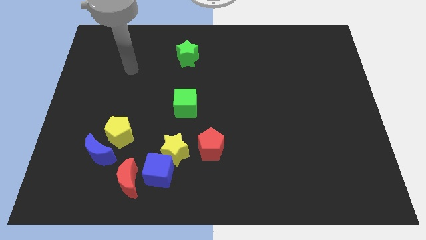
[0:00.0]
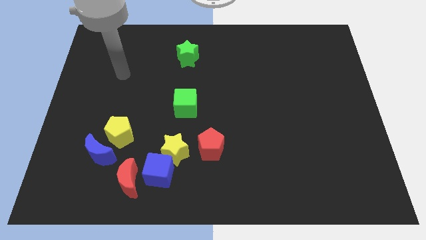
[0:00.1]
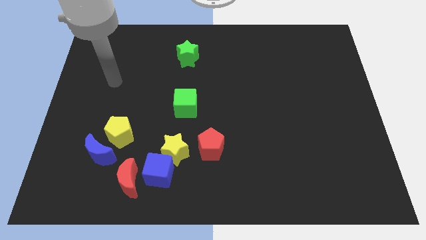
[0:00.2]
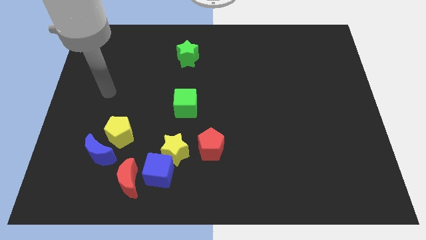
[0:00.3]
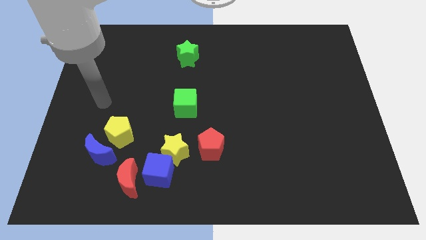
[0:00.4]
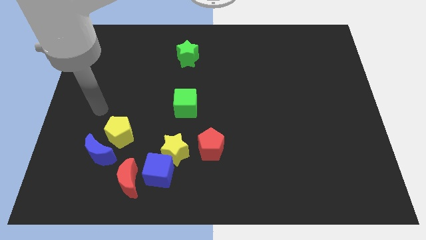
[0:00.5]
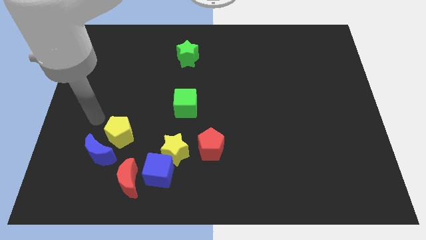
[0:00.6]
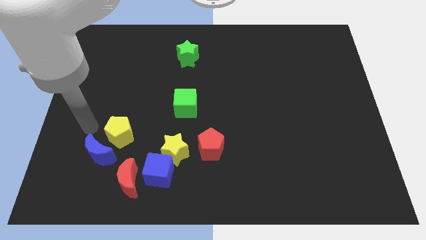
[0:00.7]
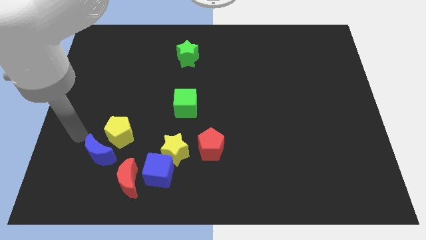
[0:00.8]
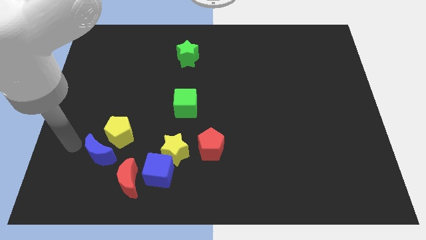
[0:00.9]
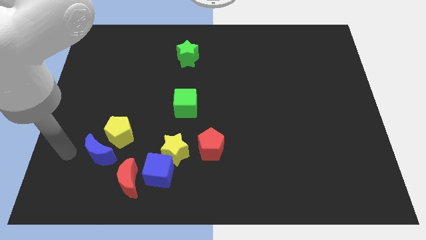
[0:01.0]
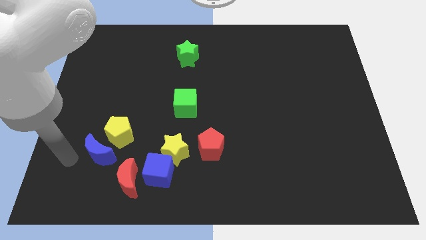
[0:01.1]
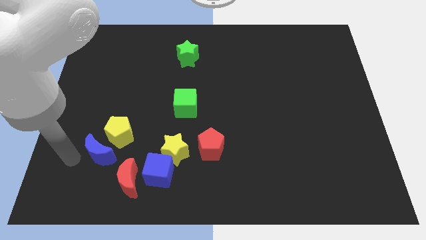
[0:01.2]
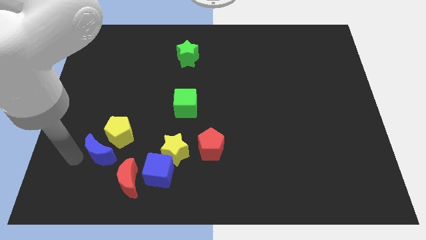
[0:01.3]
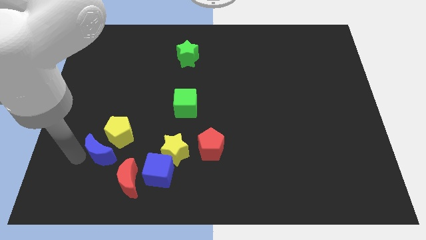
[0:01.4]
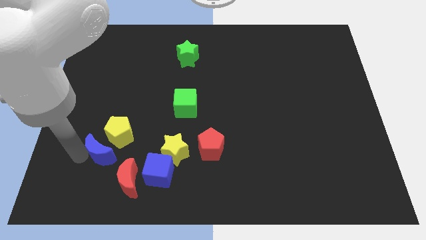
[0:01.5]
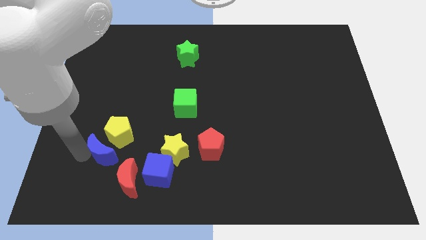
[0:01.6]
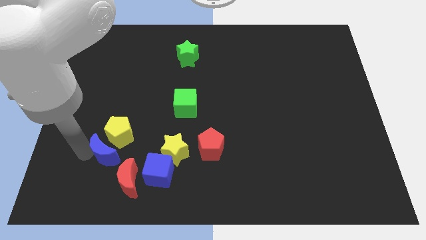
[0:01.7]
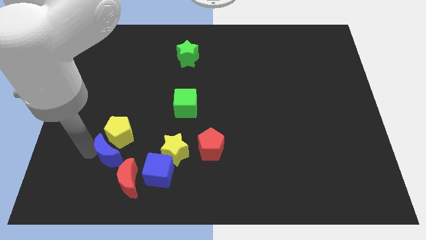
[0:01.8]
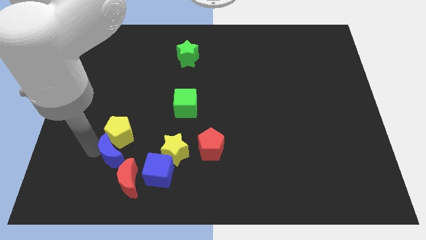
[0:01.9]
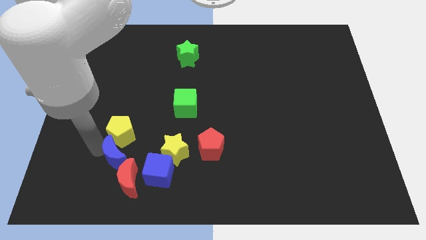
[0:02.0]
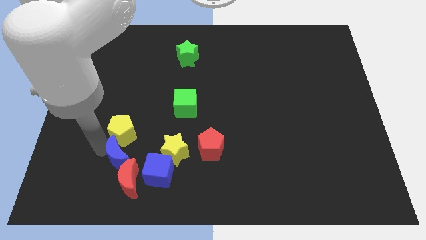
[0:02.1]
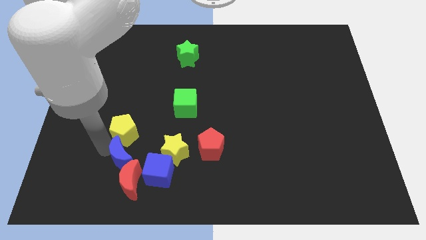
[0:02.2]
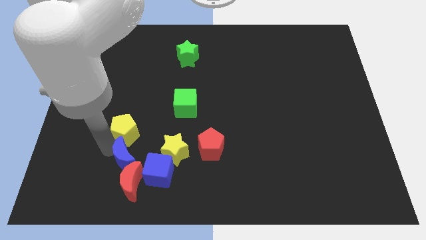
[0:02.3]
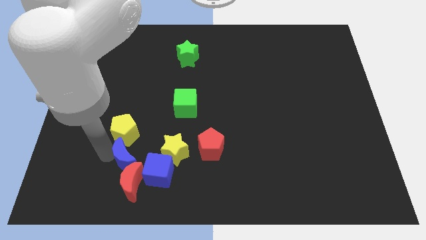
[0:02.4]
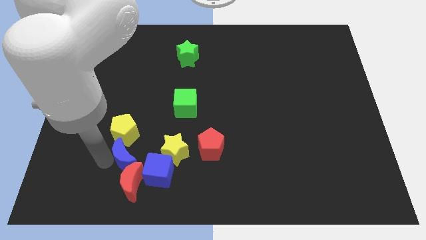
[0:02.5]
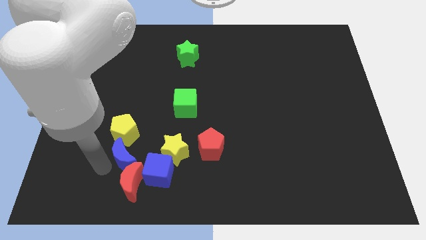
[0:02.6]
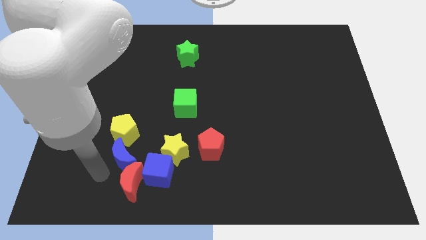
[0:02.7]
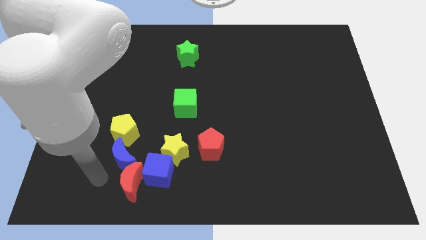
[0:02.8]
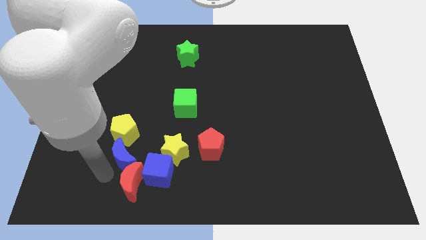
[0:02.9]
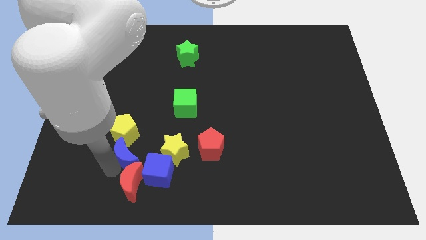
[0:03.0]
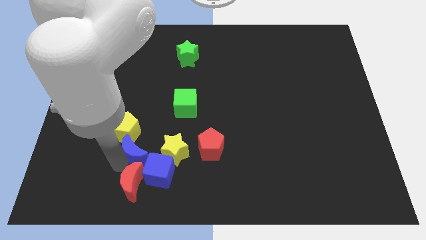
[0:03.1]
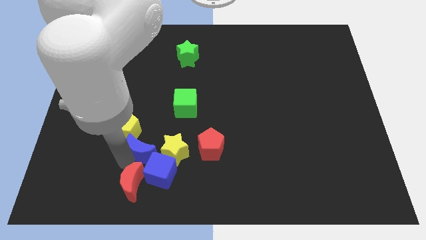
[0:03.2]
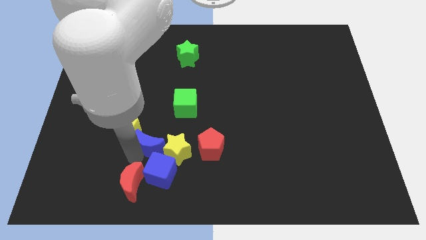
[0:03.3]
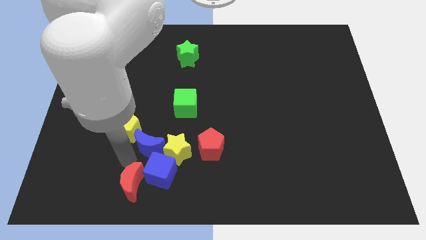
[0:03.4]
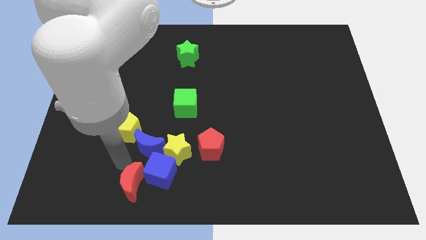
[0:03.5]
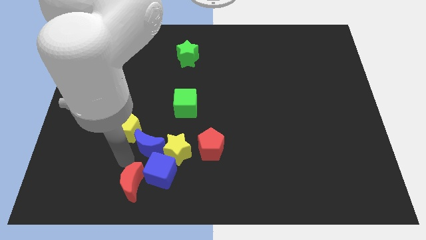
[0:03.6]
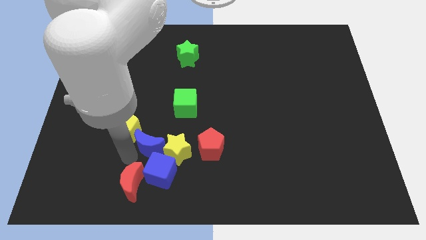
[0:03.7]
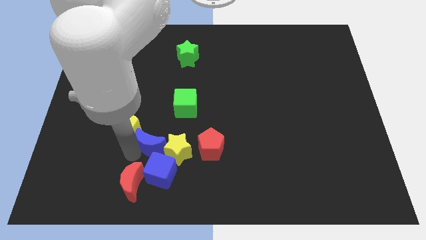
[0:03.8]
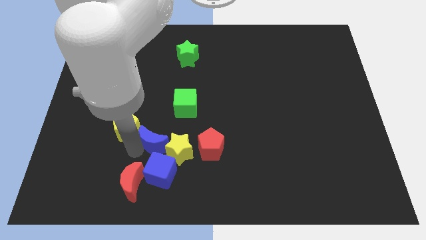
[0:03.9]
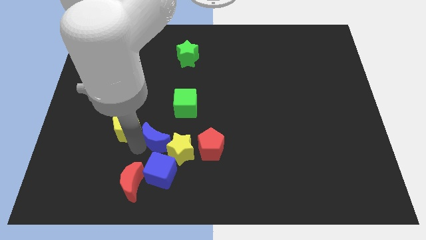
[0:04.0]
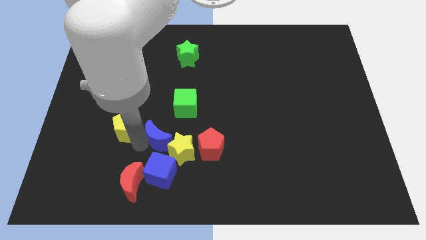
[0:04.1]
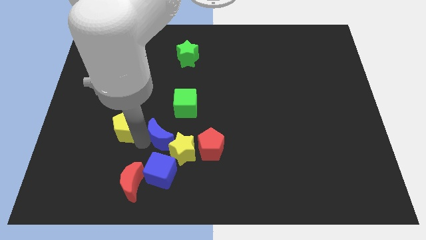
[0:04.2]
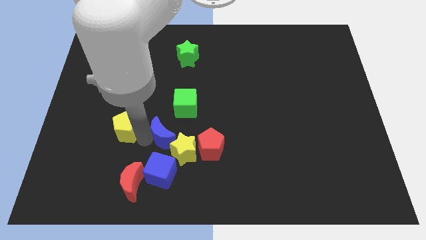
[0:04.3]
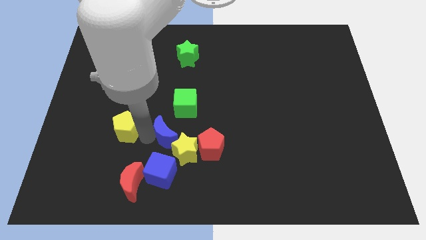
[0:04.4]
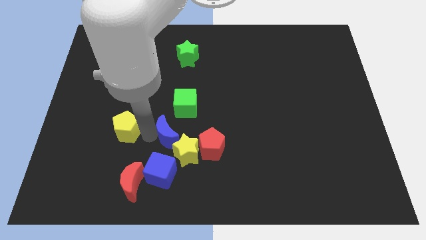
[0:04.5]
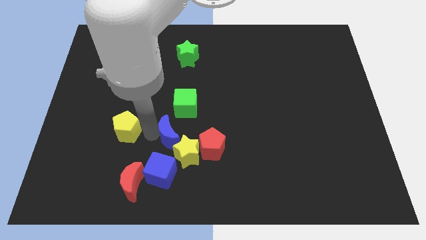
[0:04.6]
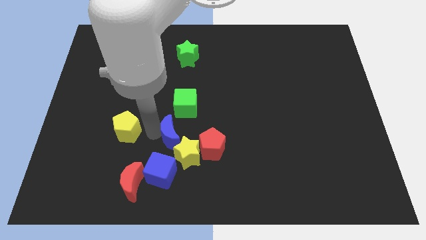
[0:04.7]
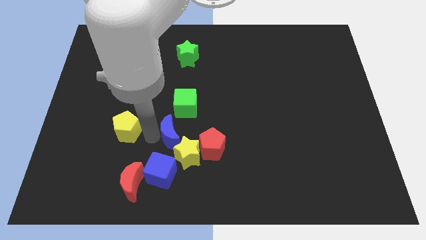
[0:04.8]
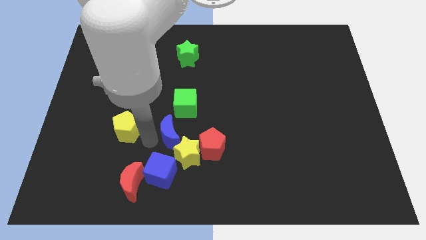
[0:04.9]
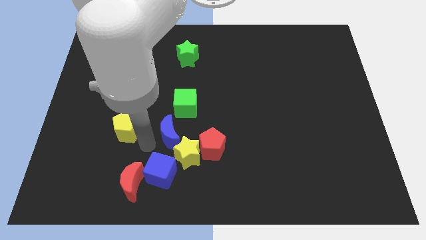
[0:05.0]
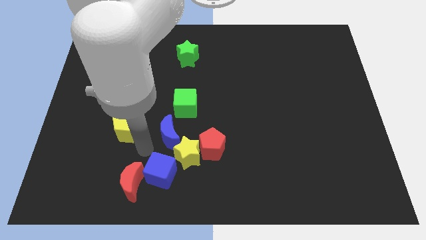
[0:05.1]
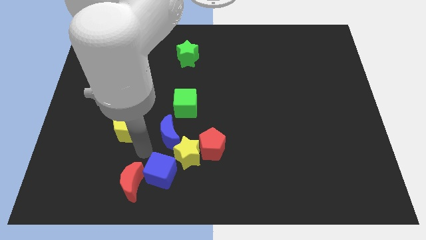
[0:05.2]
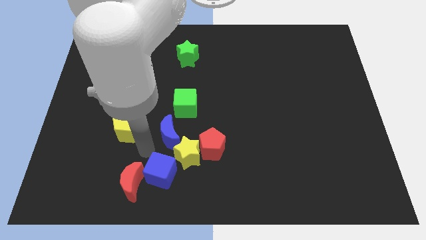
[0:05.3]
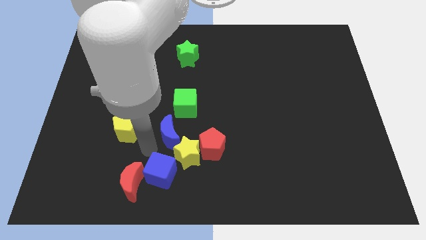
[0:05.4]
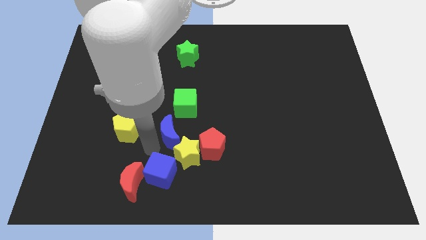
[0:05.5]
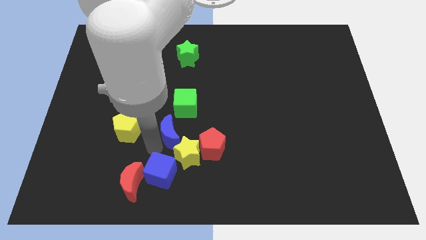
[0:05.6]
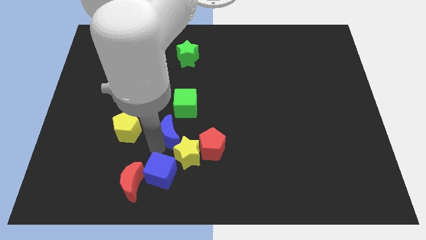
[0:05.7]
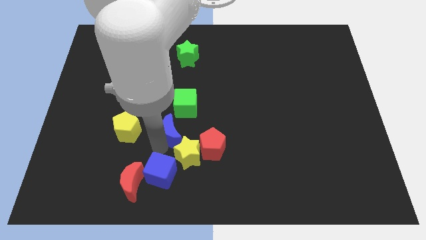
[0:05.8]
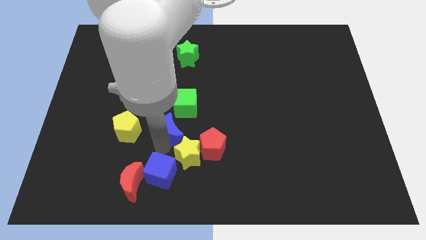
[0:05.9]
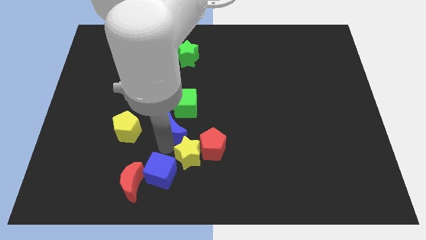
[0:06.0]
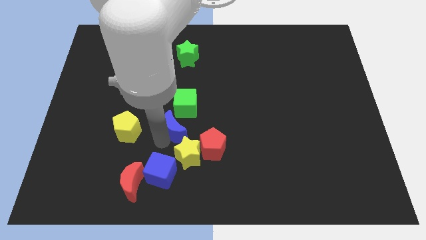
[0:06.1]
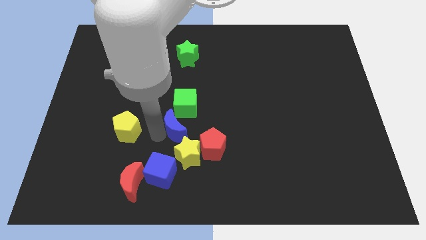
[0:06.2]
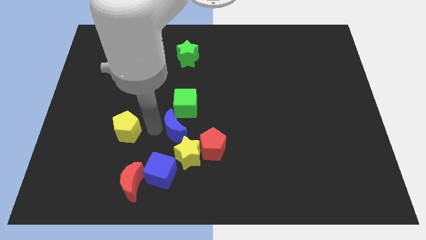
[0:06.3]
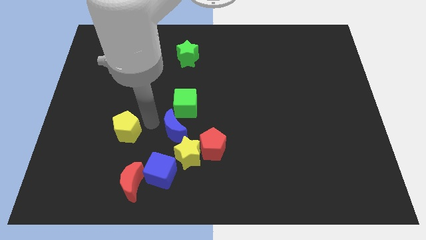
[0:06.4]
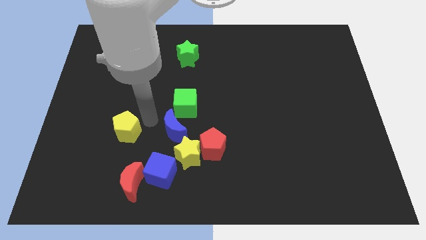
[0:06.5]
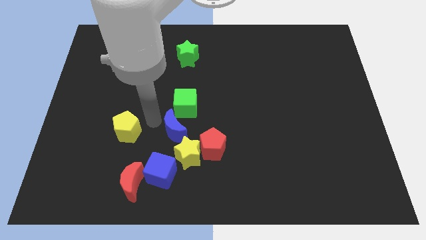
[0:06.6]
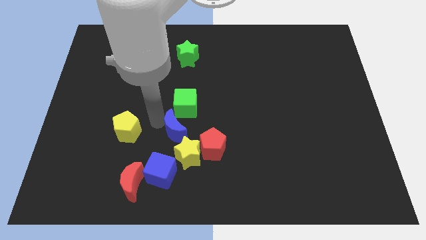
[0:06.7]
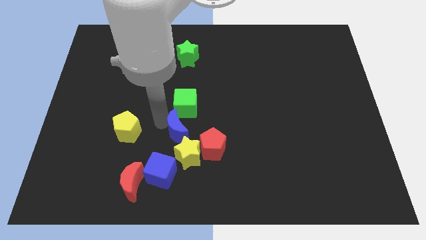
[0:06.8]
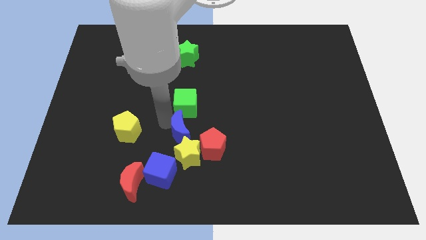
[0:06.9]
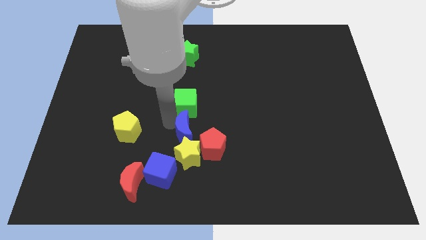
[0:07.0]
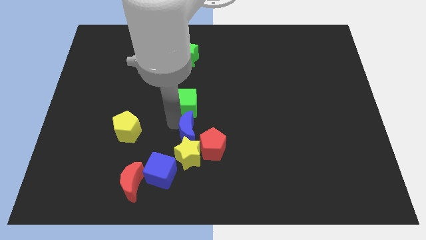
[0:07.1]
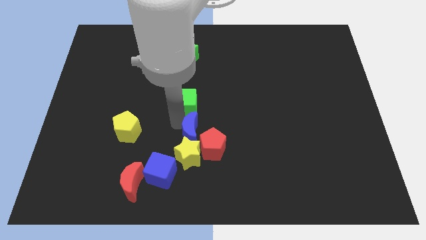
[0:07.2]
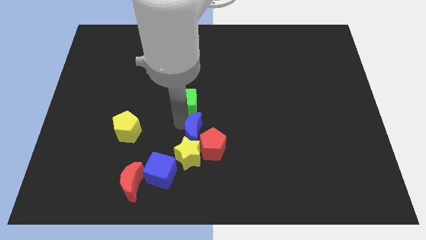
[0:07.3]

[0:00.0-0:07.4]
put the blue moon next to the red pentagon
